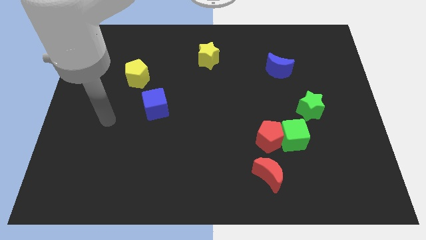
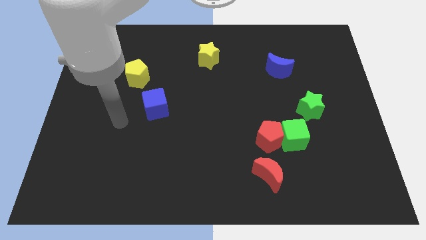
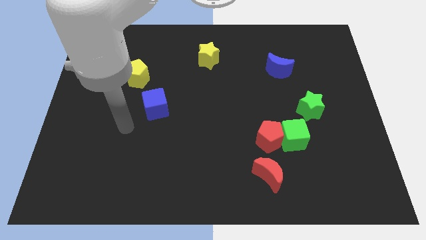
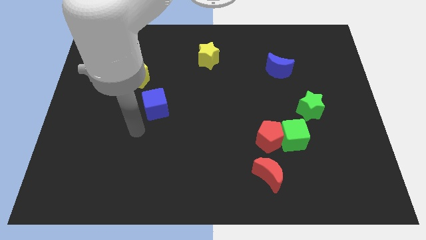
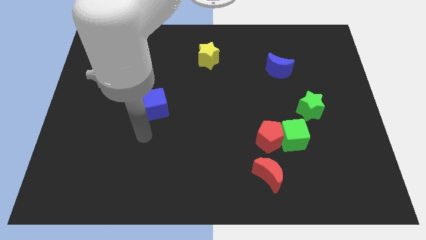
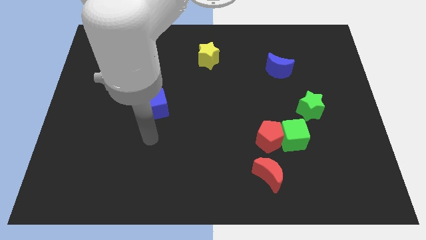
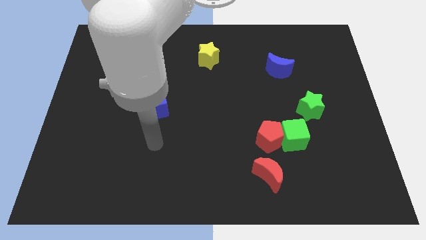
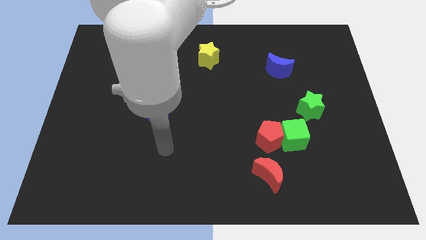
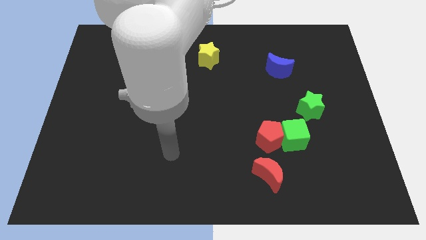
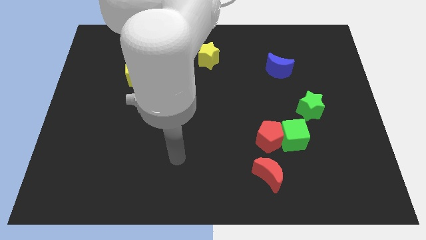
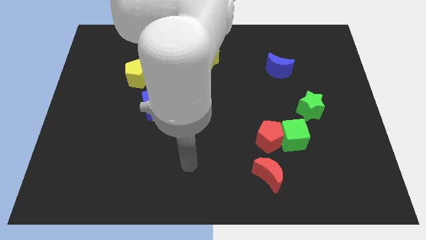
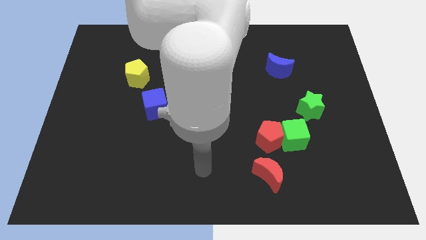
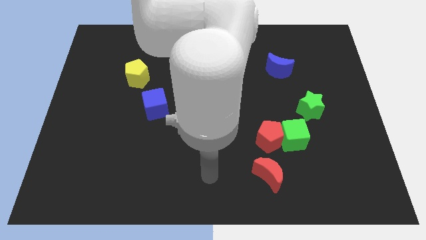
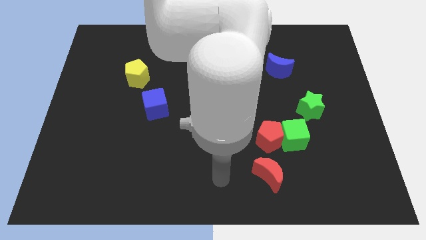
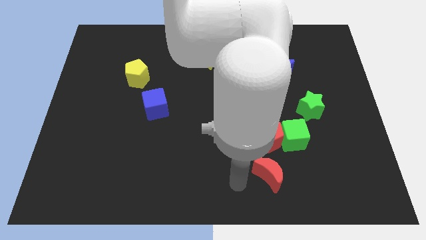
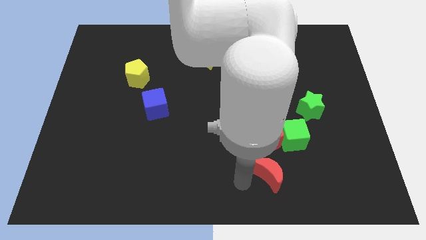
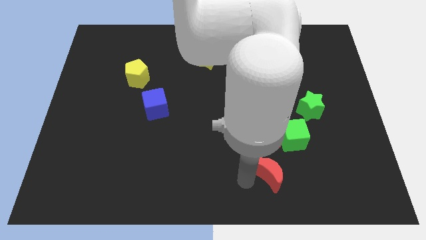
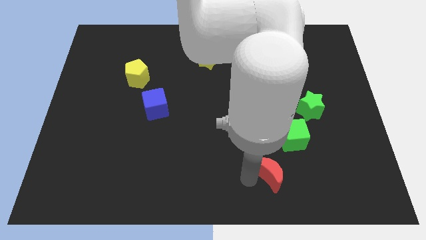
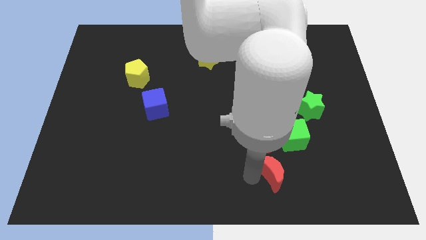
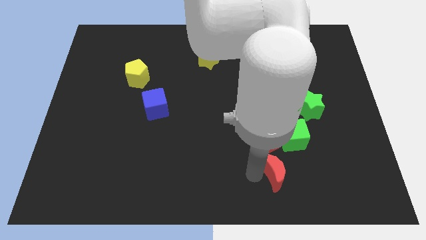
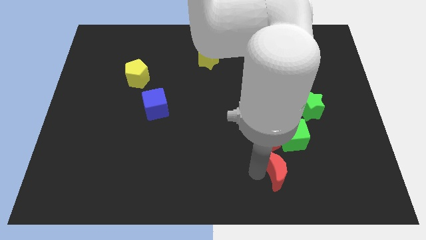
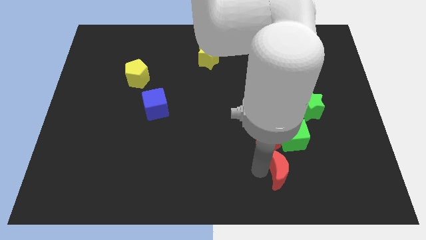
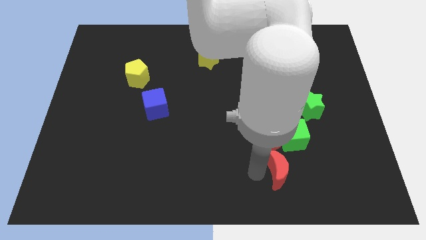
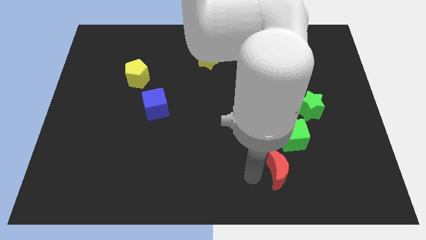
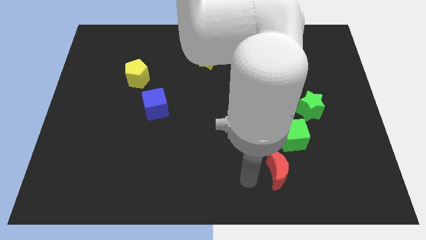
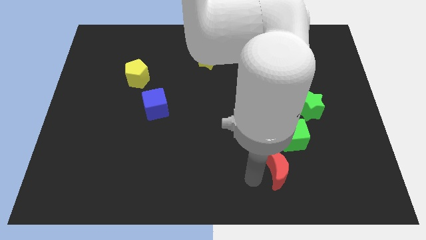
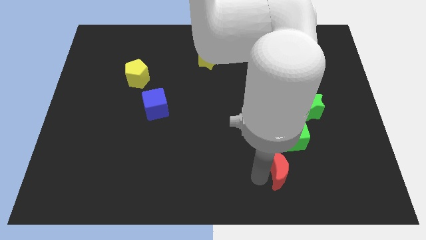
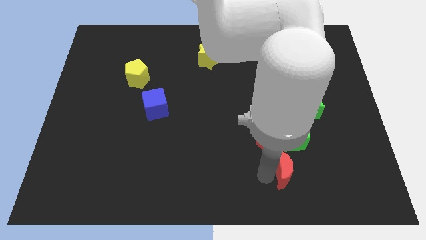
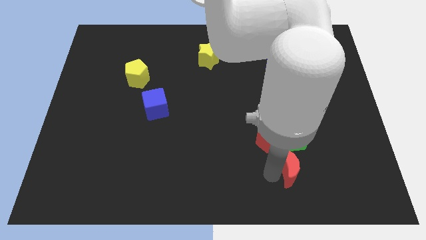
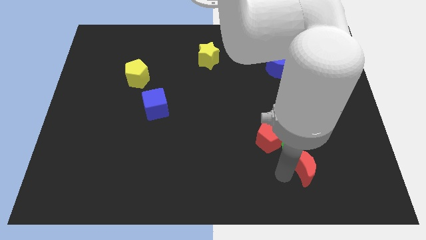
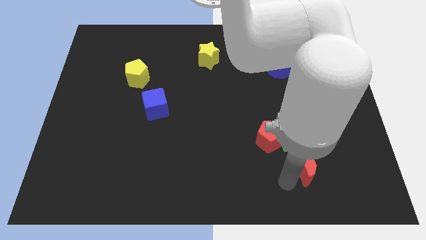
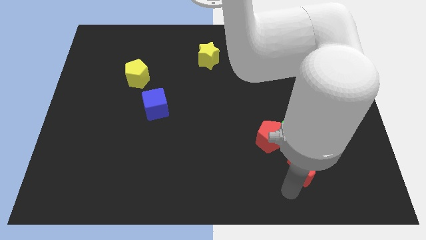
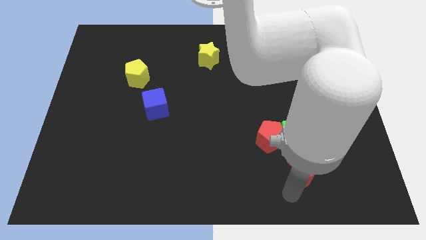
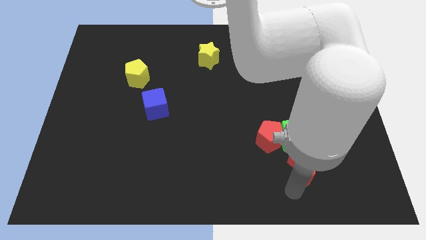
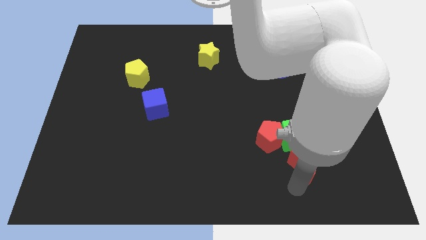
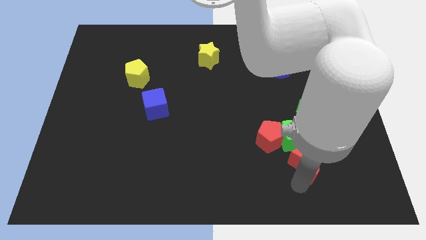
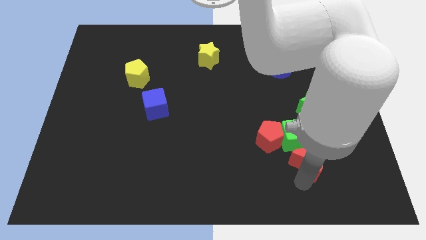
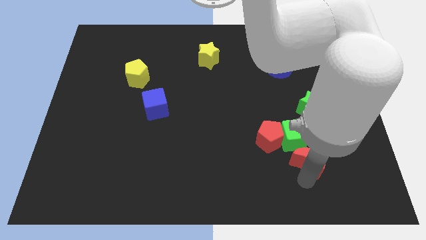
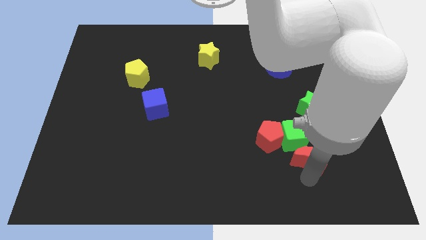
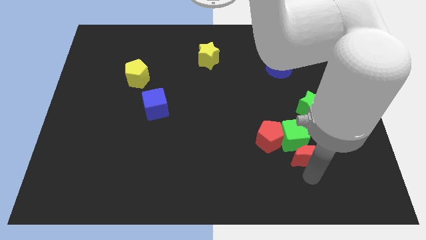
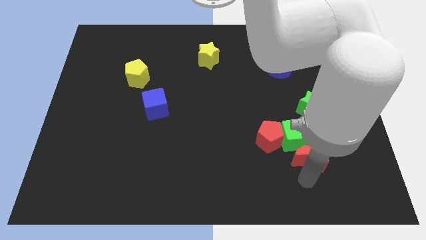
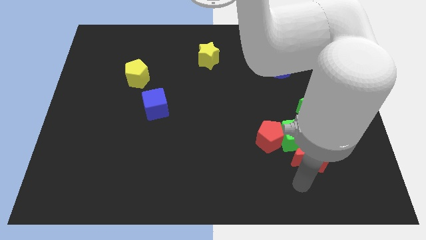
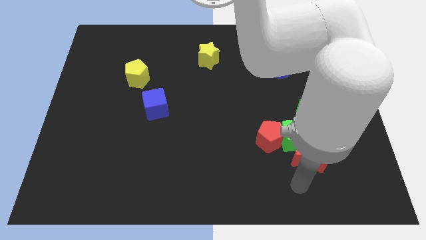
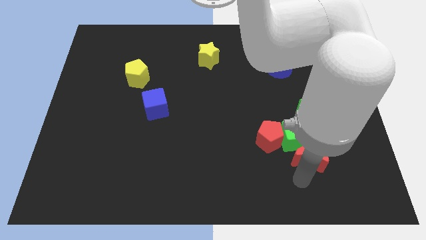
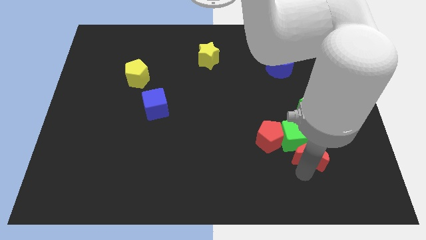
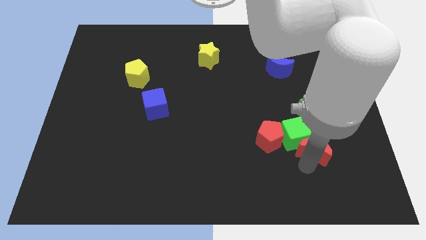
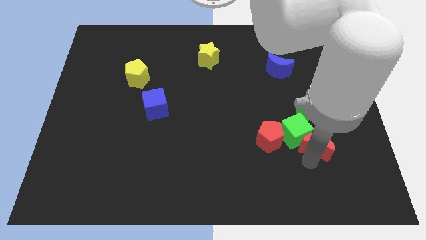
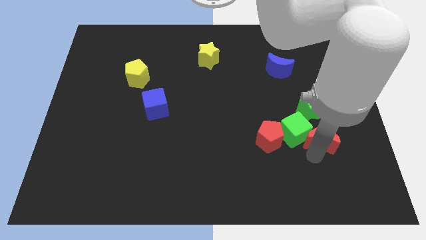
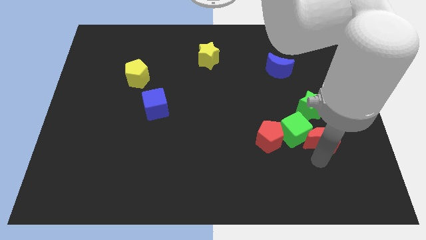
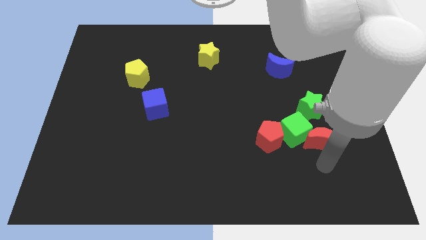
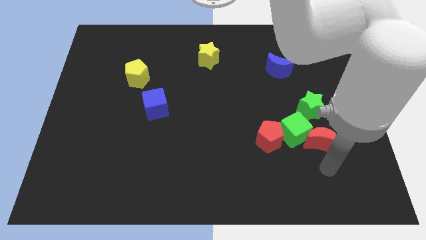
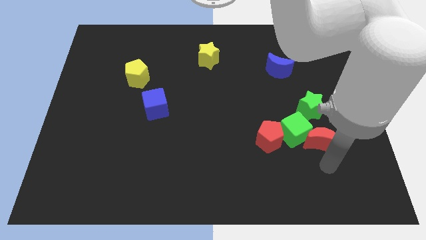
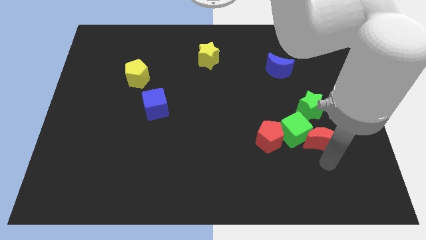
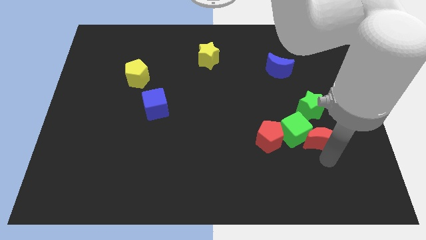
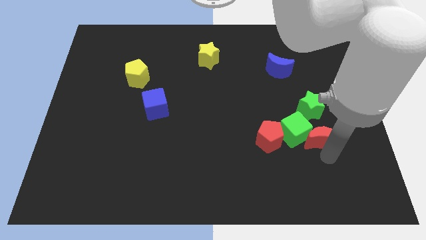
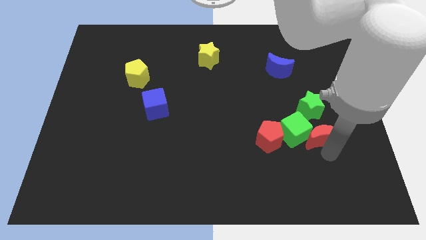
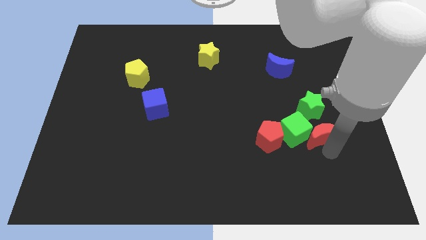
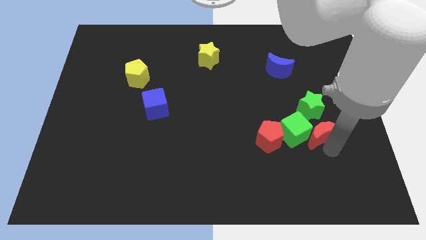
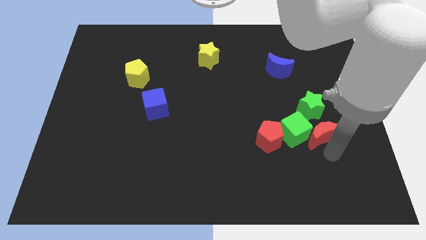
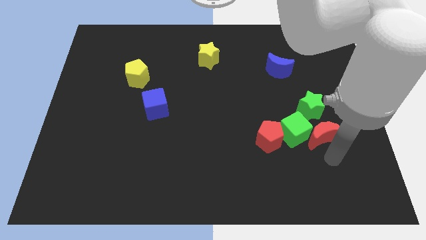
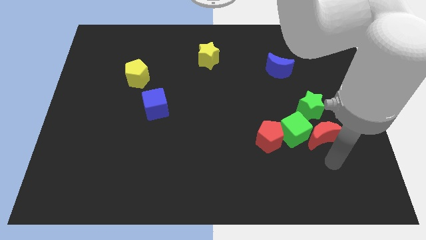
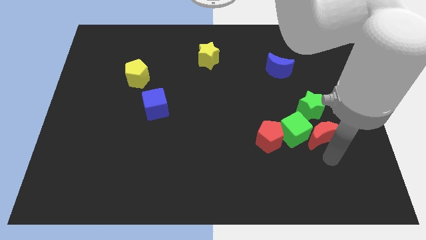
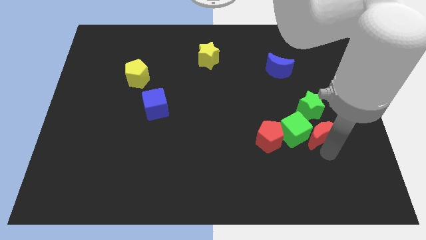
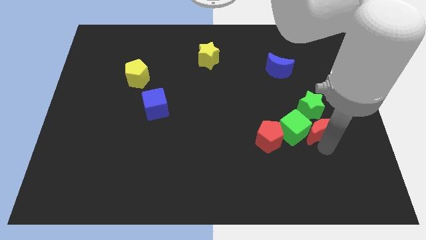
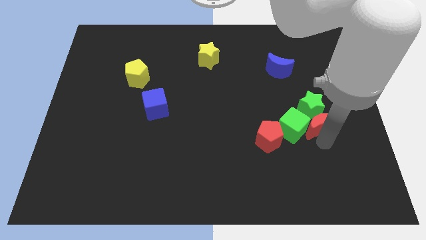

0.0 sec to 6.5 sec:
put the red moon next to the green star
